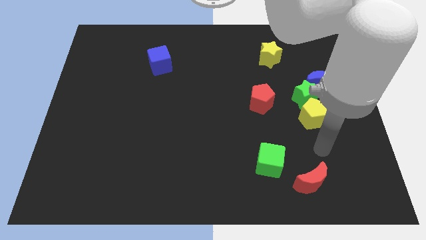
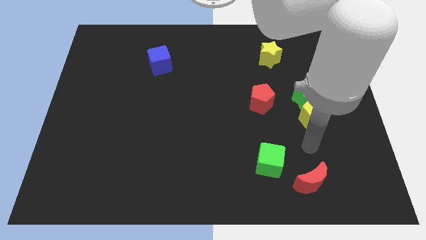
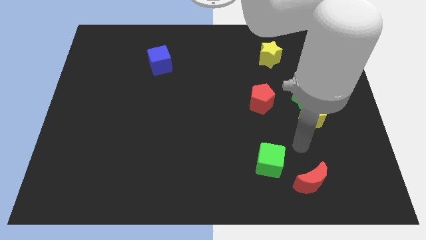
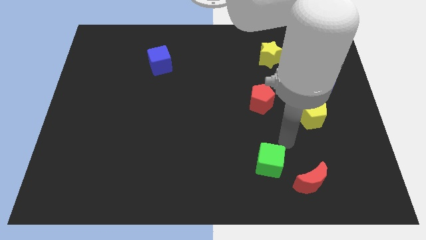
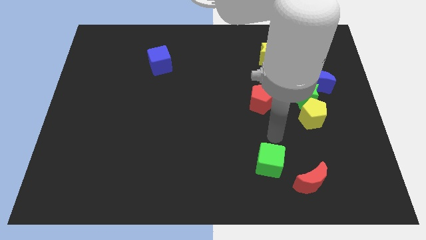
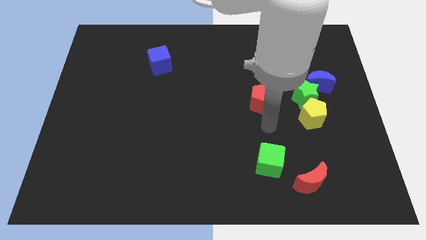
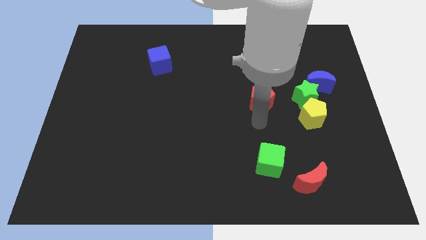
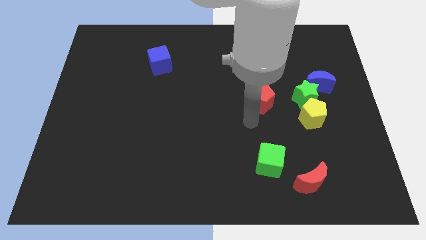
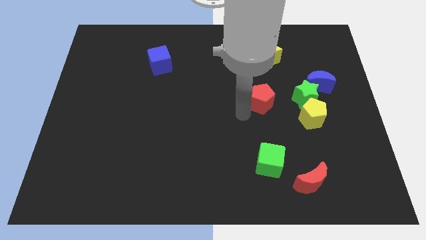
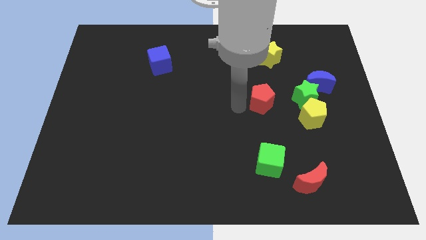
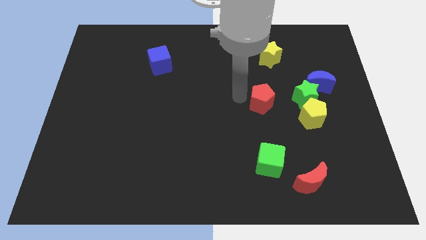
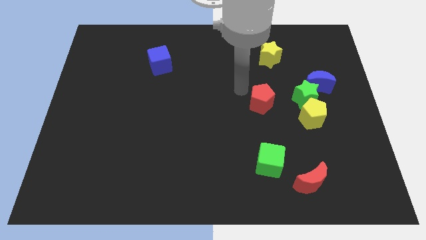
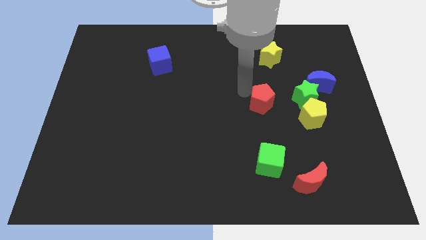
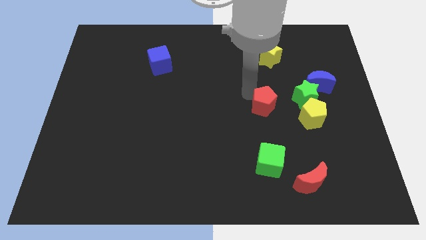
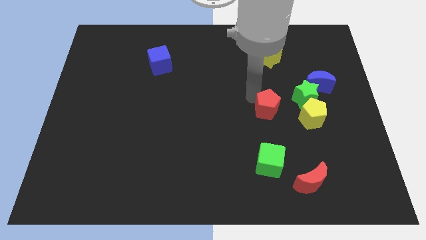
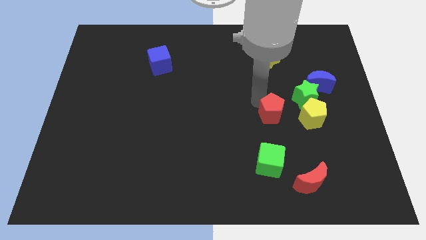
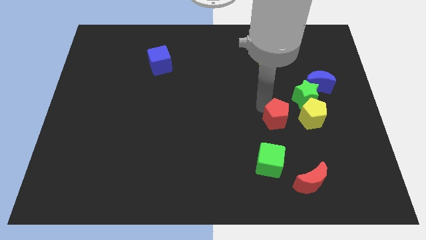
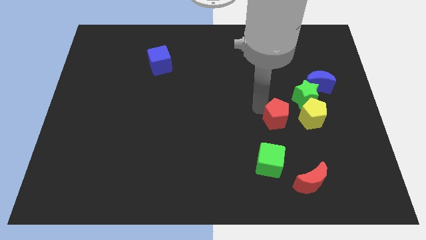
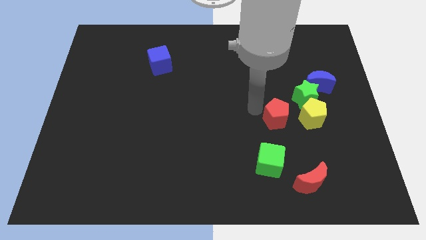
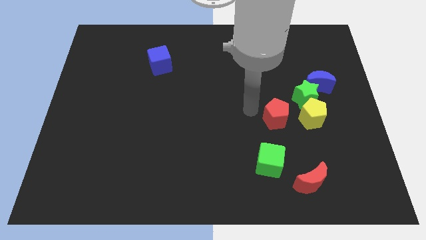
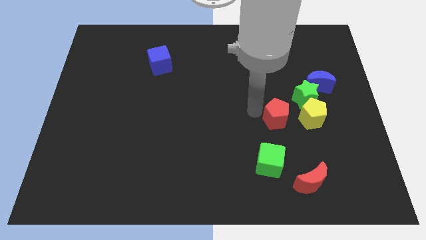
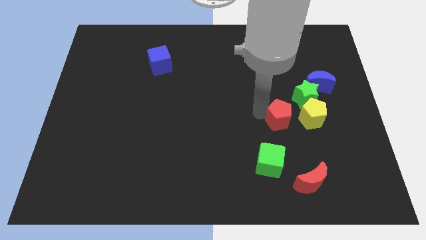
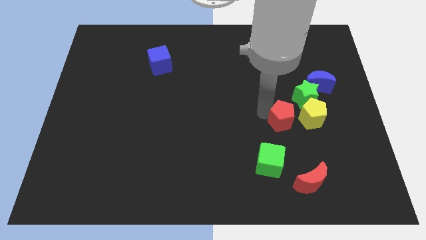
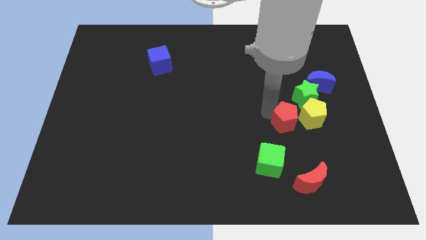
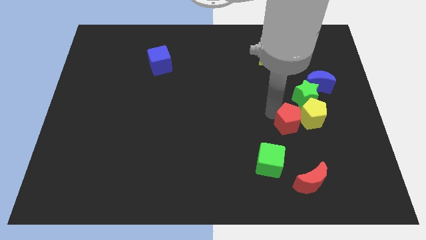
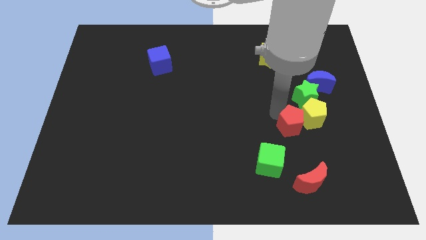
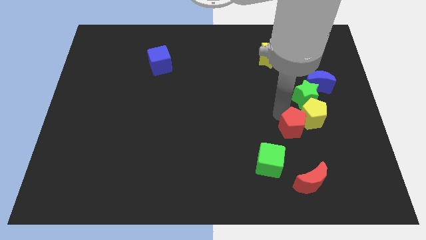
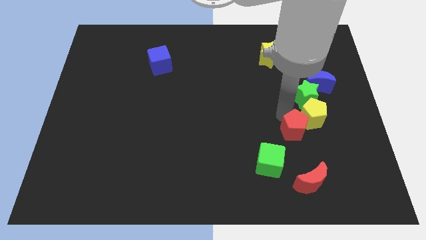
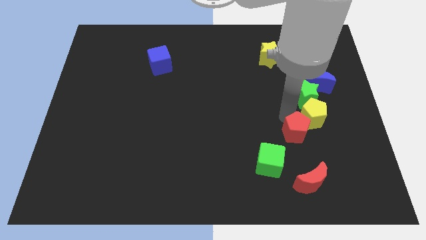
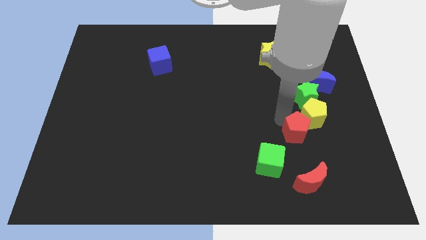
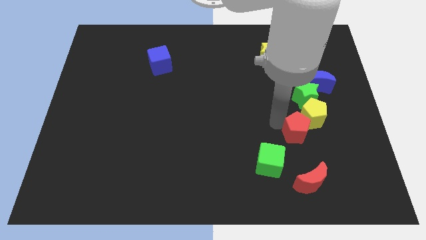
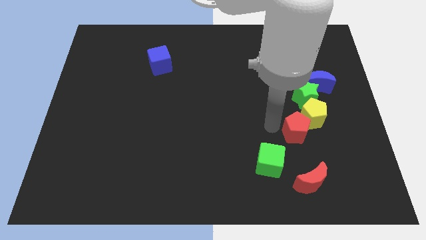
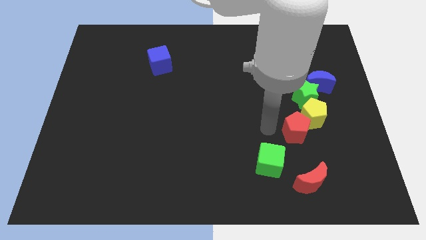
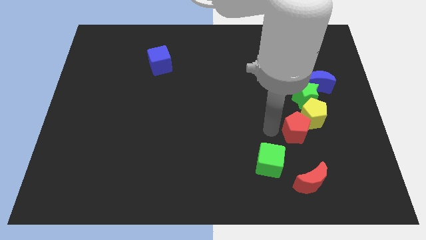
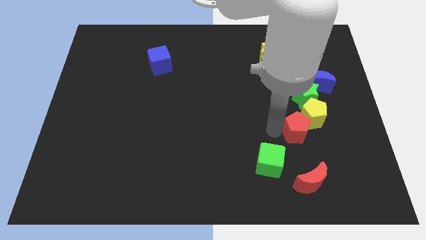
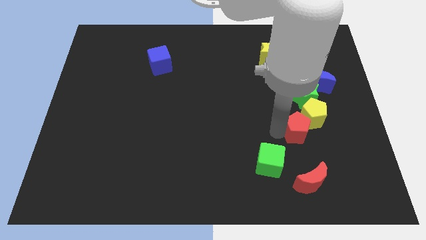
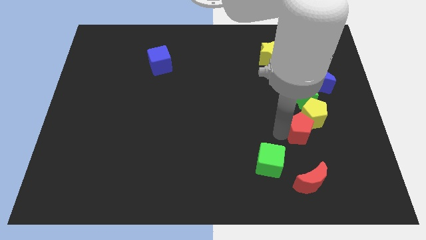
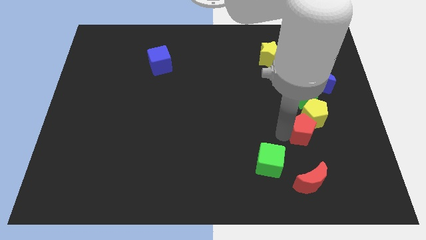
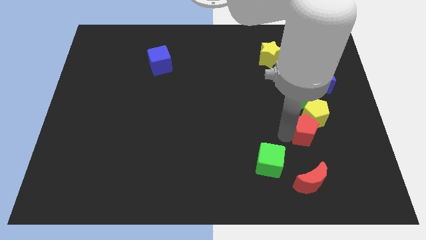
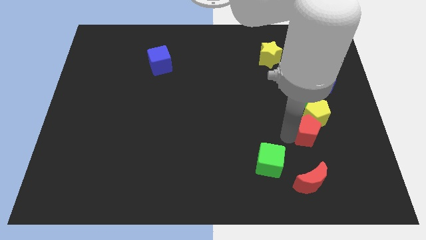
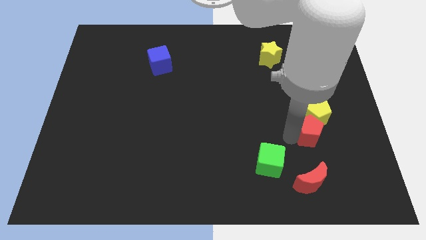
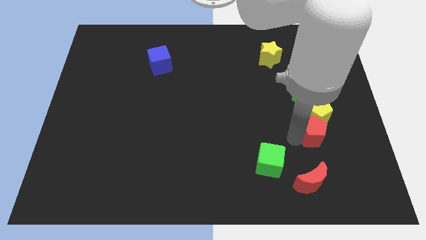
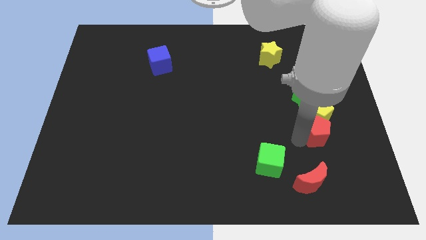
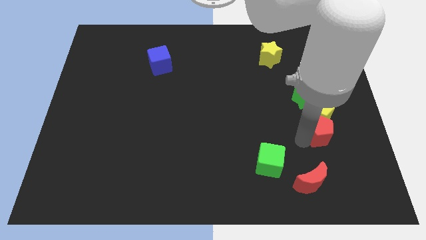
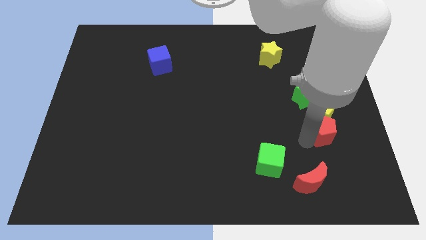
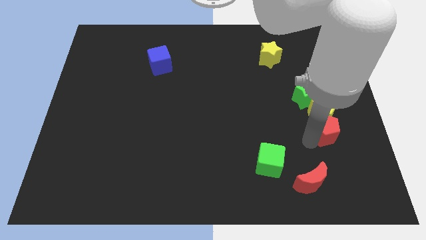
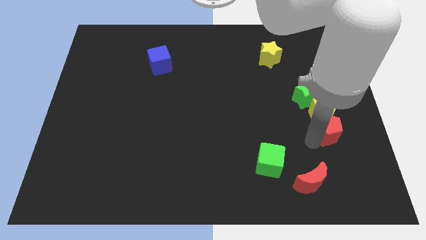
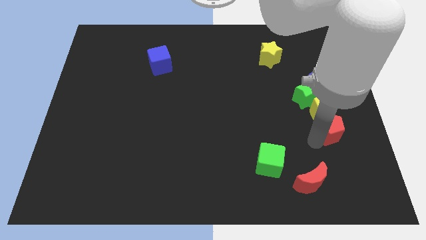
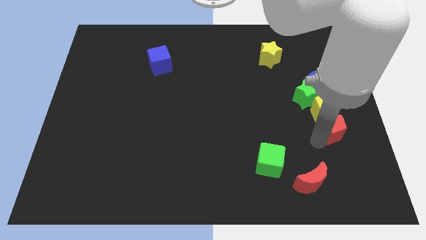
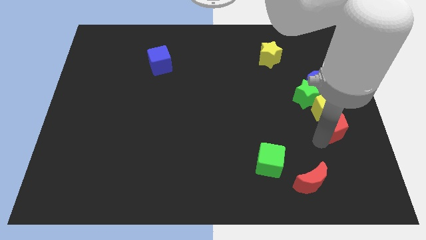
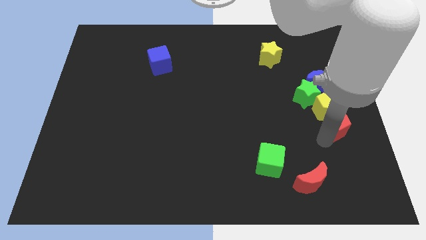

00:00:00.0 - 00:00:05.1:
move the red pentagon to the center right

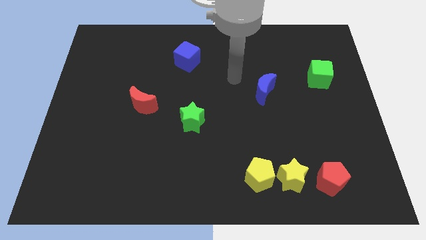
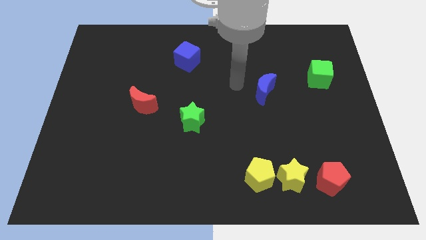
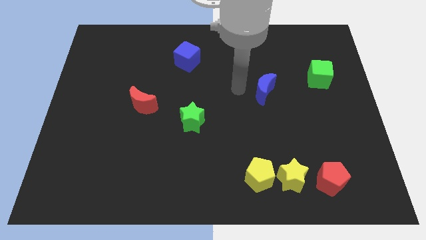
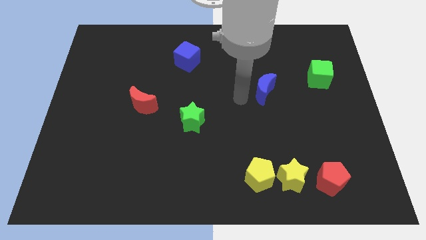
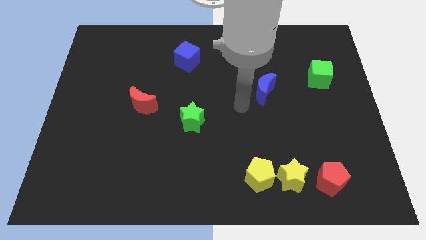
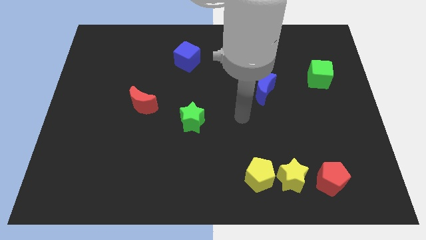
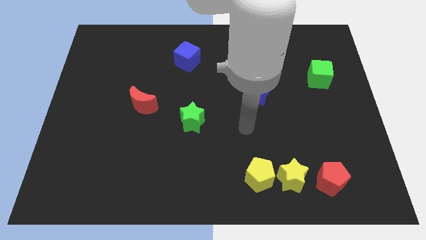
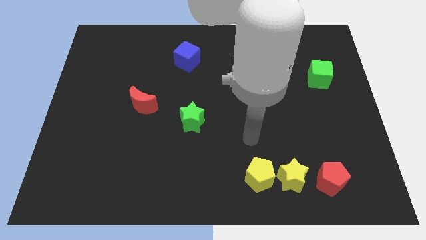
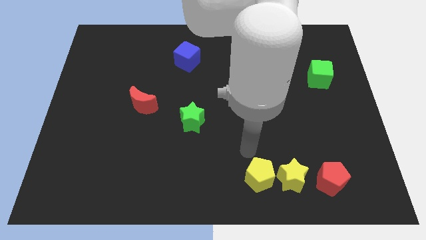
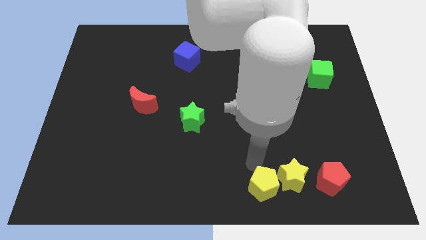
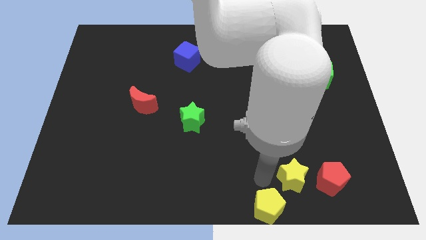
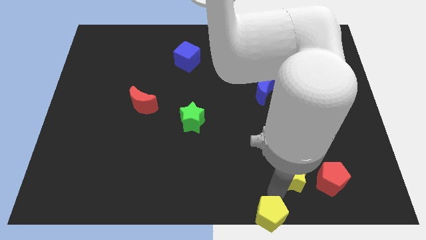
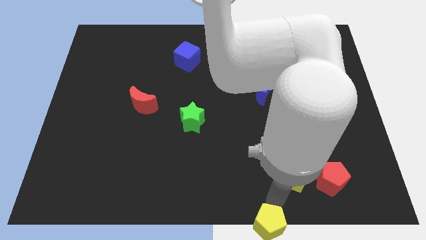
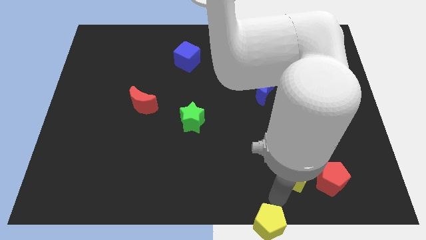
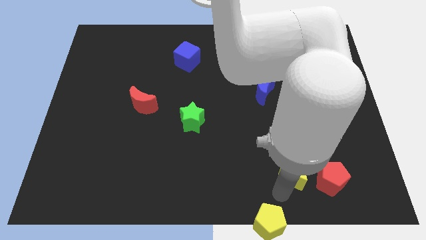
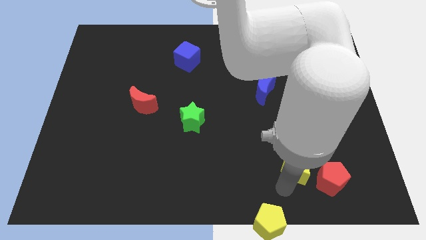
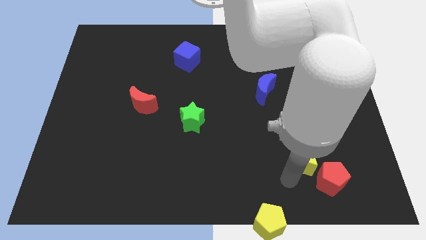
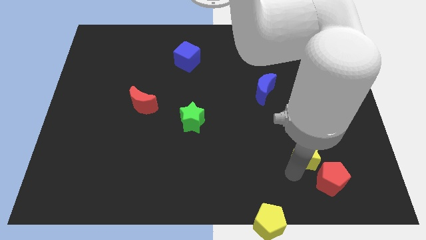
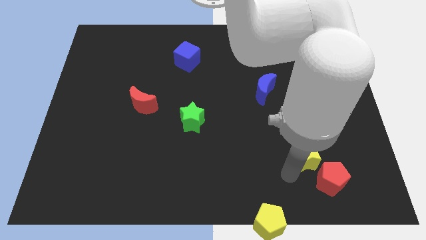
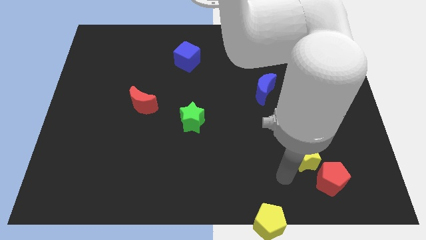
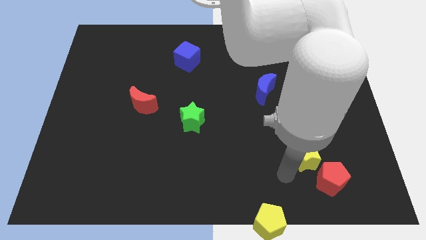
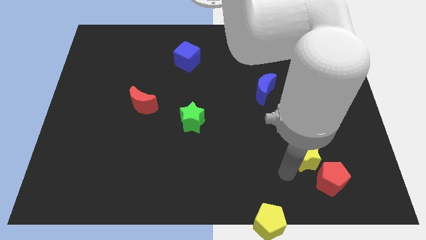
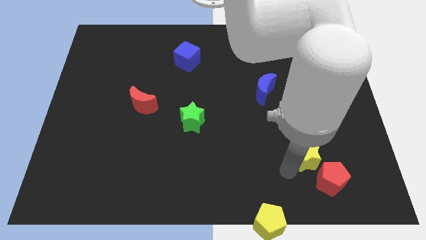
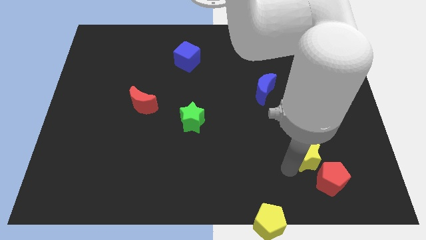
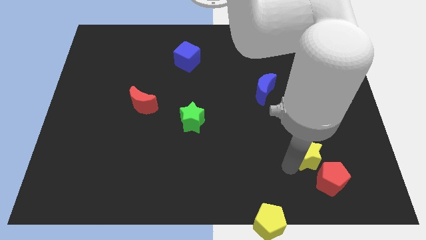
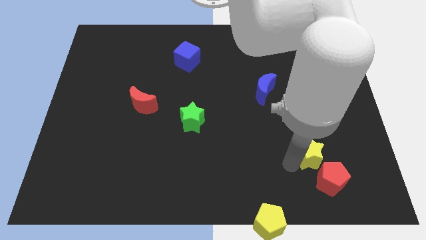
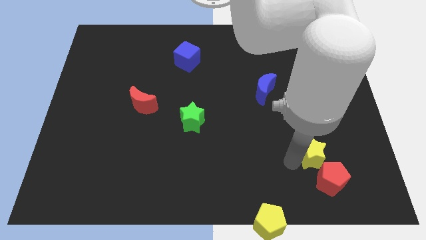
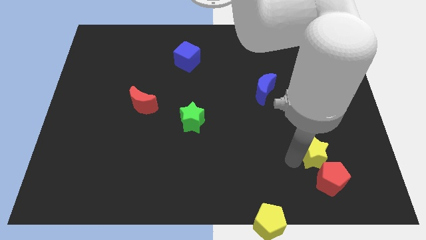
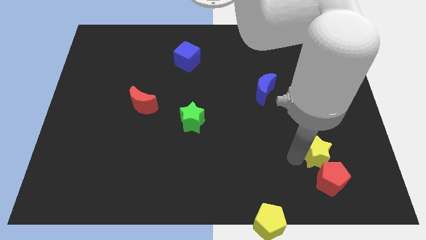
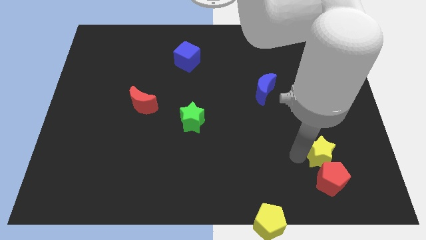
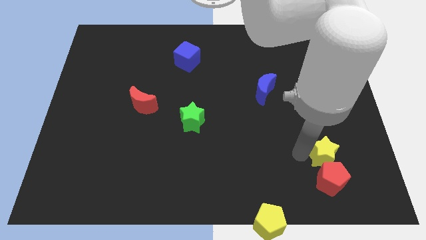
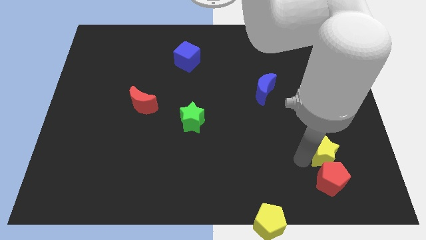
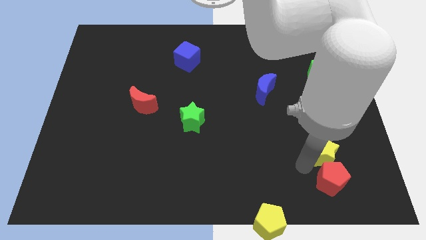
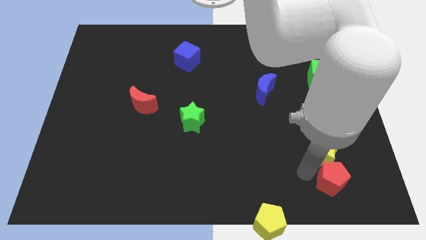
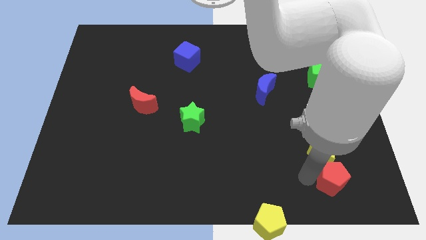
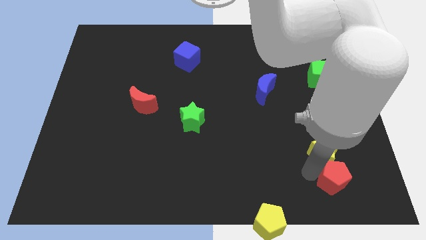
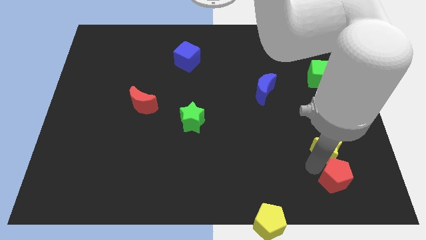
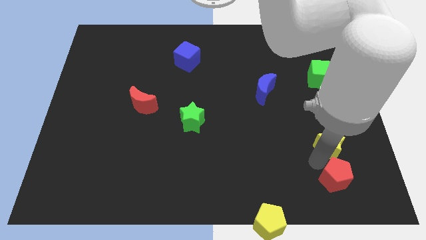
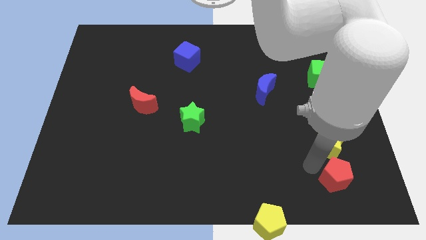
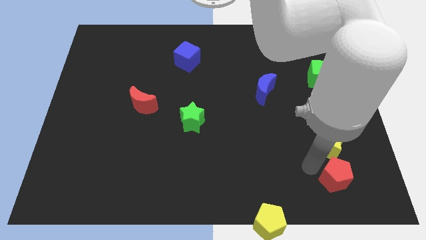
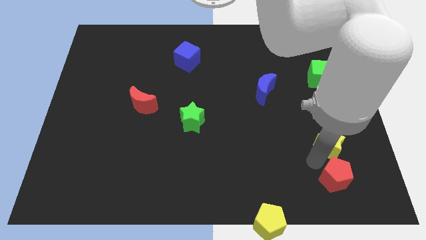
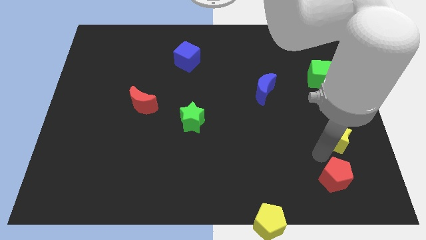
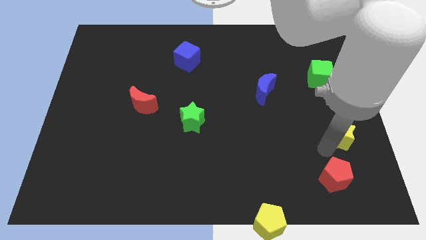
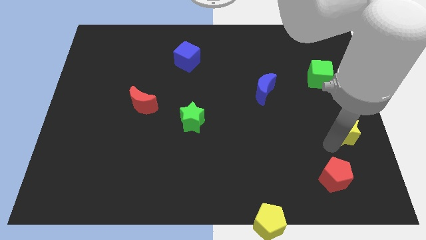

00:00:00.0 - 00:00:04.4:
push the yellow star to the center right
